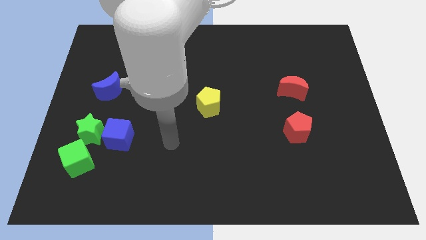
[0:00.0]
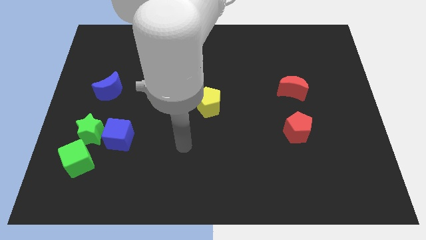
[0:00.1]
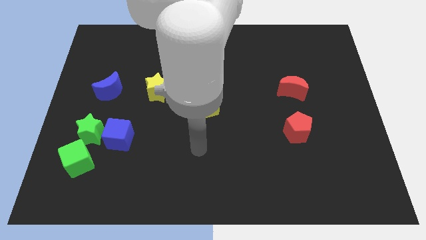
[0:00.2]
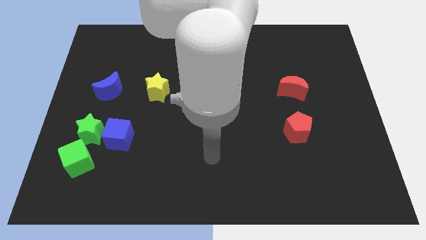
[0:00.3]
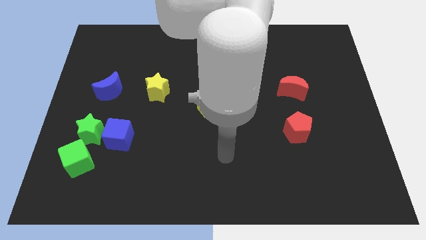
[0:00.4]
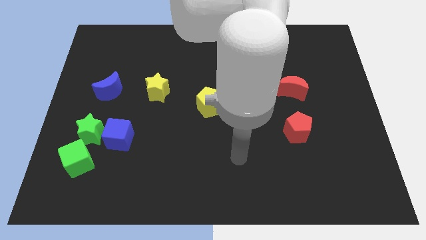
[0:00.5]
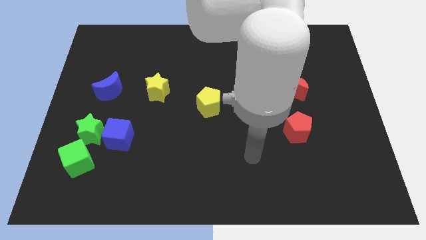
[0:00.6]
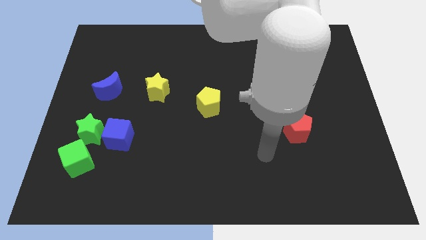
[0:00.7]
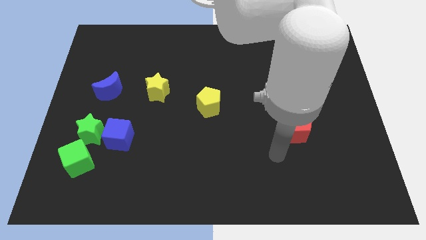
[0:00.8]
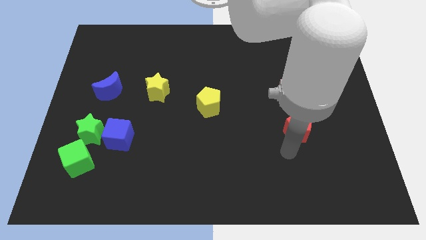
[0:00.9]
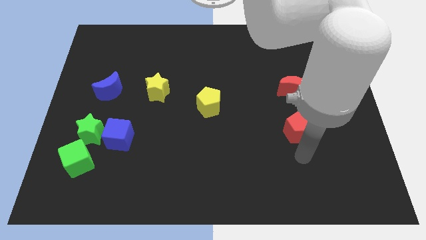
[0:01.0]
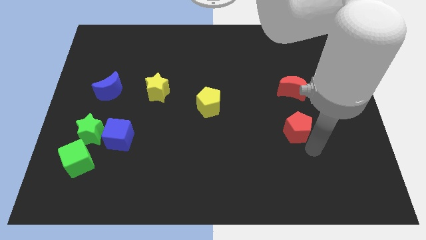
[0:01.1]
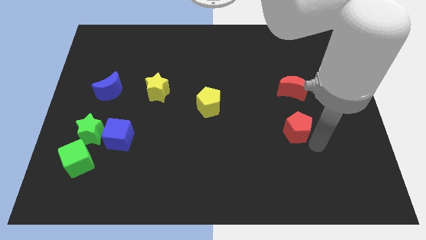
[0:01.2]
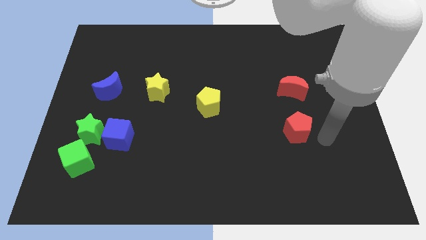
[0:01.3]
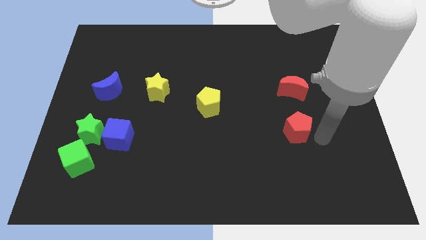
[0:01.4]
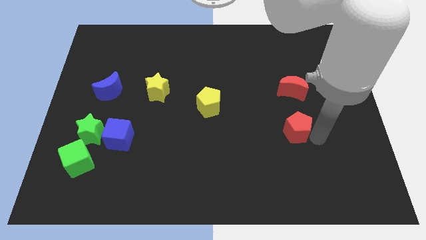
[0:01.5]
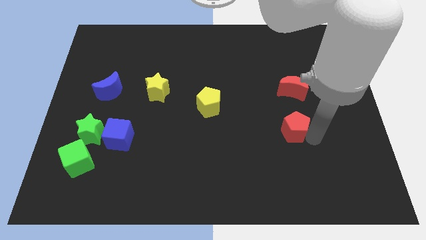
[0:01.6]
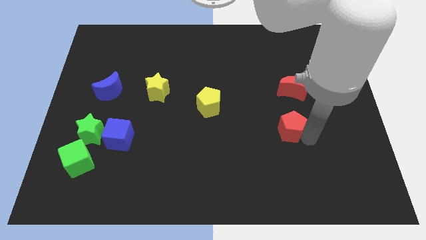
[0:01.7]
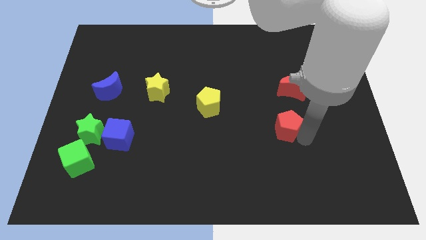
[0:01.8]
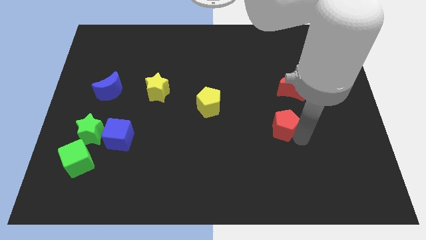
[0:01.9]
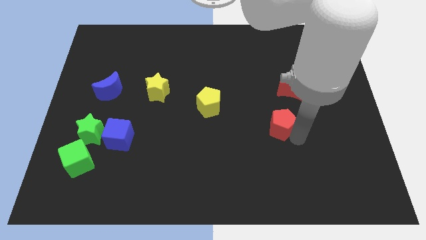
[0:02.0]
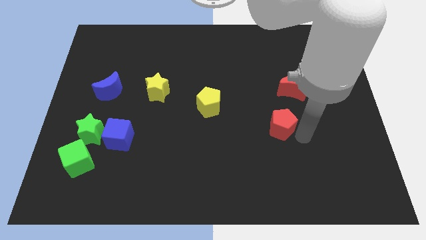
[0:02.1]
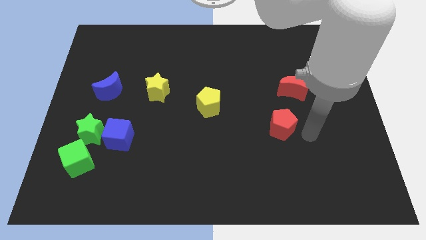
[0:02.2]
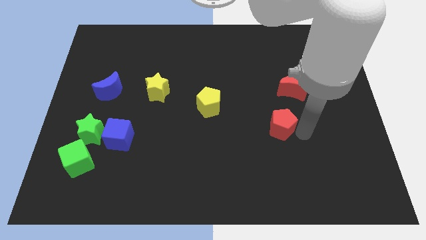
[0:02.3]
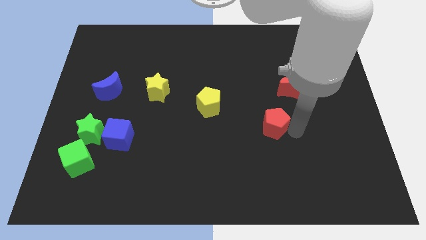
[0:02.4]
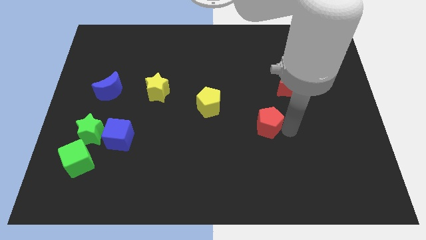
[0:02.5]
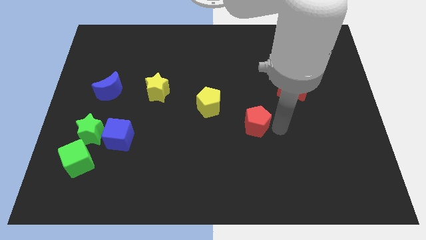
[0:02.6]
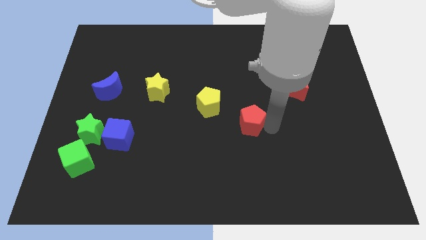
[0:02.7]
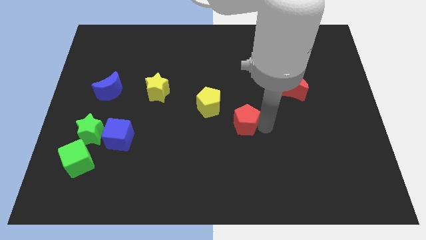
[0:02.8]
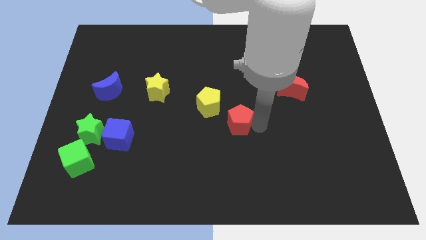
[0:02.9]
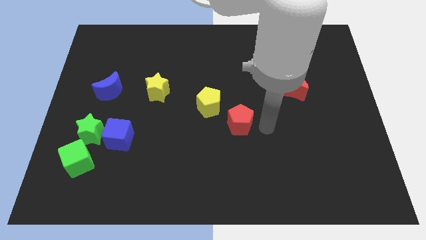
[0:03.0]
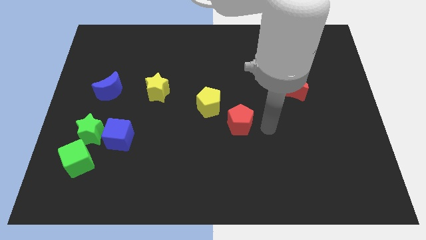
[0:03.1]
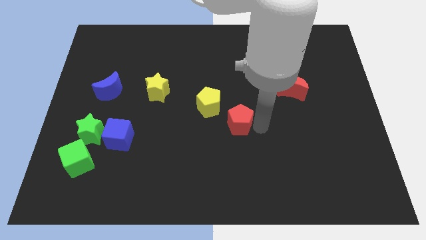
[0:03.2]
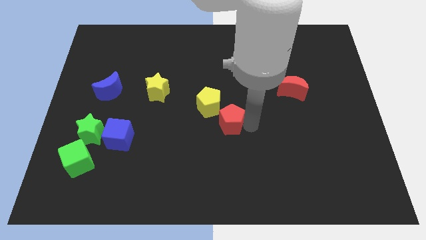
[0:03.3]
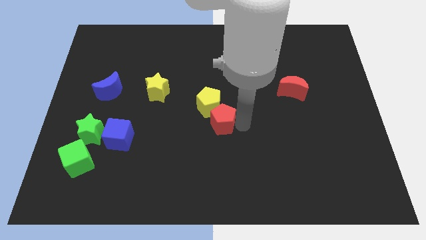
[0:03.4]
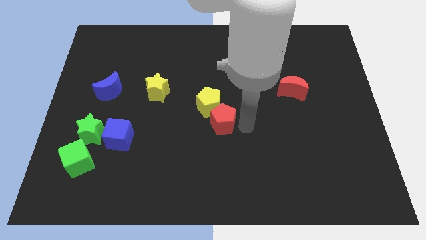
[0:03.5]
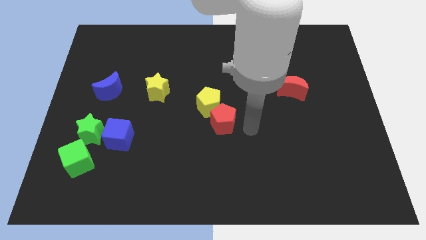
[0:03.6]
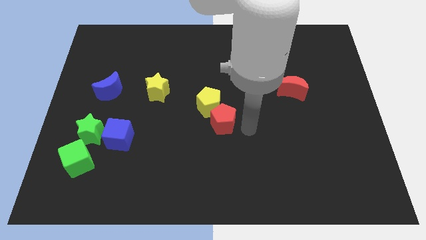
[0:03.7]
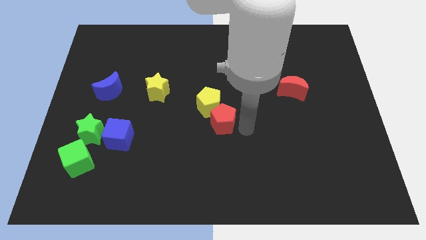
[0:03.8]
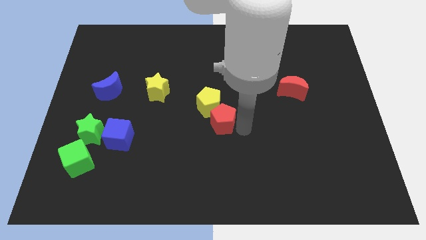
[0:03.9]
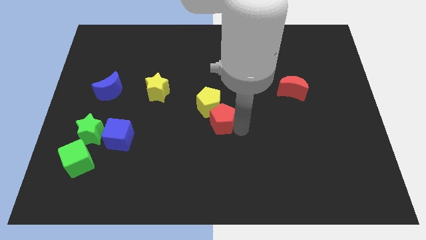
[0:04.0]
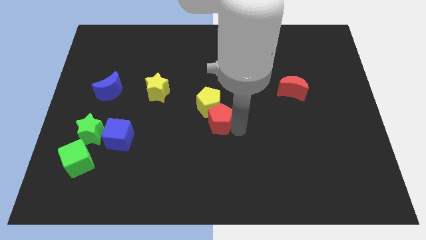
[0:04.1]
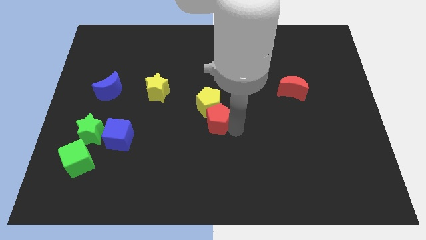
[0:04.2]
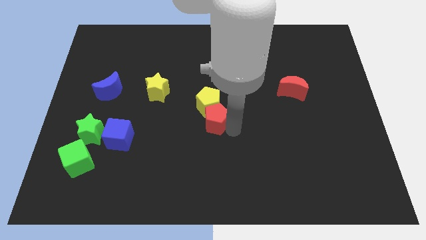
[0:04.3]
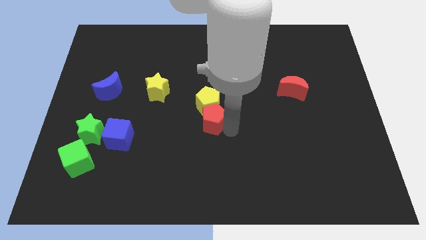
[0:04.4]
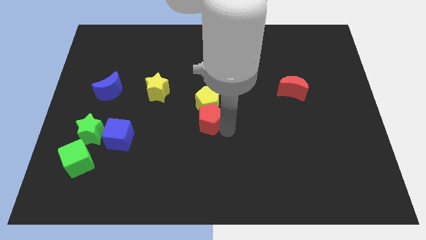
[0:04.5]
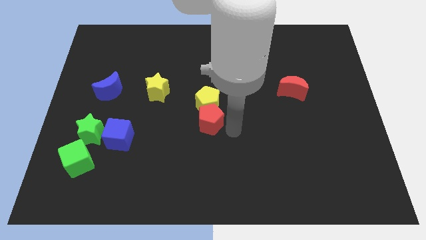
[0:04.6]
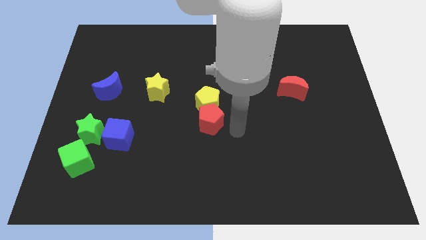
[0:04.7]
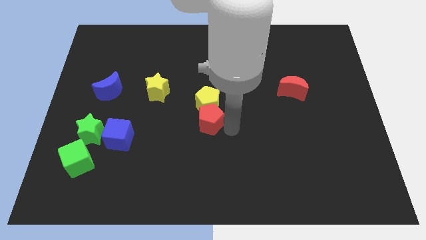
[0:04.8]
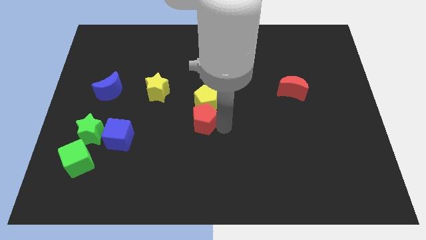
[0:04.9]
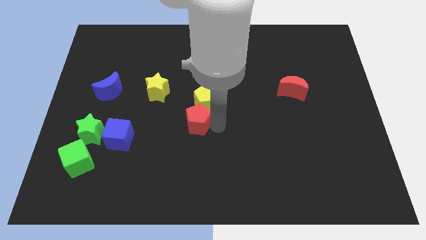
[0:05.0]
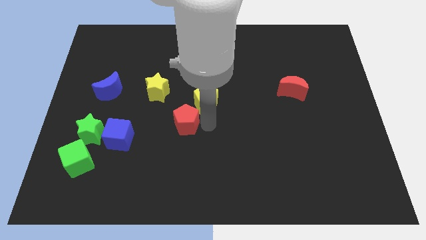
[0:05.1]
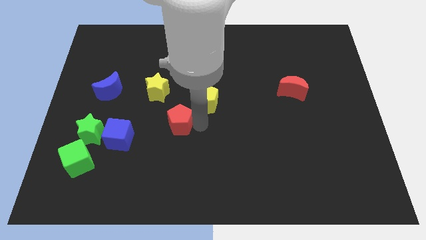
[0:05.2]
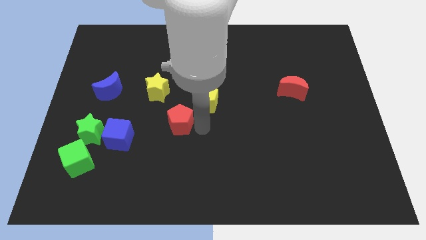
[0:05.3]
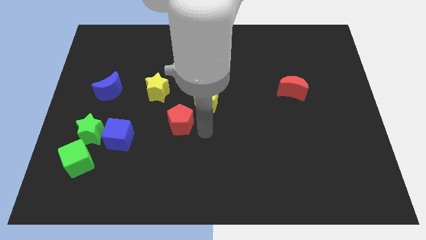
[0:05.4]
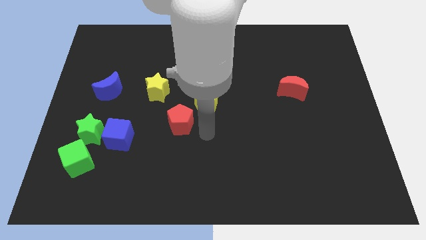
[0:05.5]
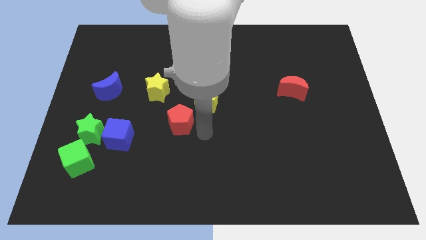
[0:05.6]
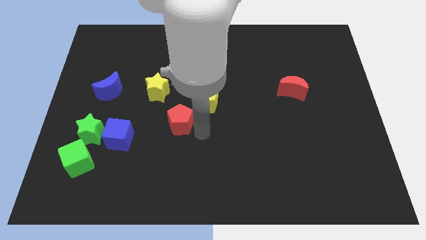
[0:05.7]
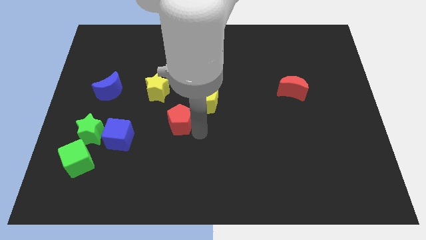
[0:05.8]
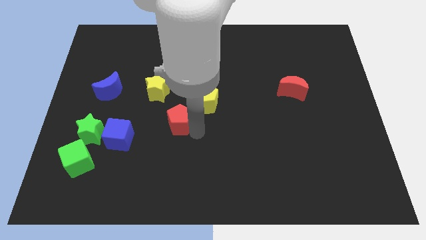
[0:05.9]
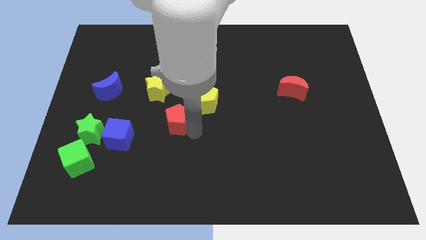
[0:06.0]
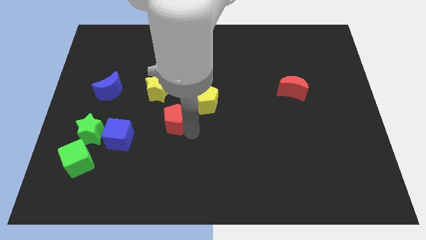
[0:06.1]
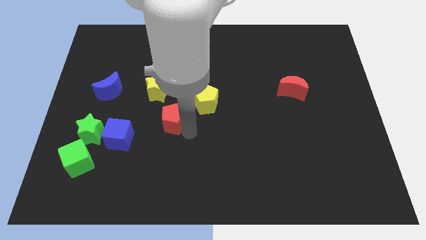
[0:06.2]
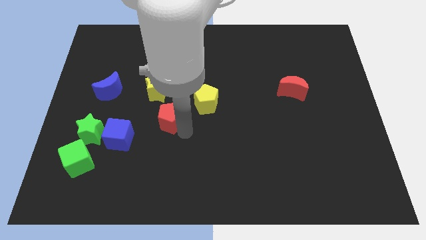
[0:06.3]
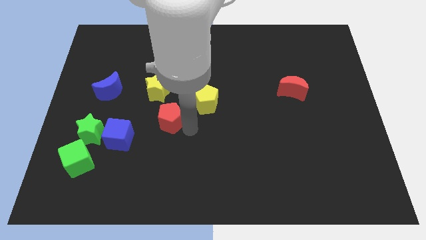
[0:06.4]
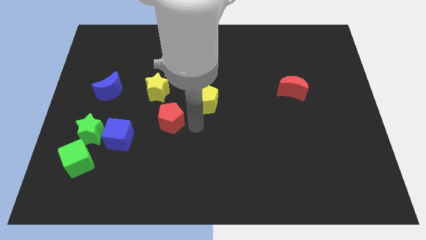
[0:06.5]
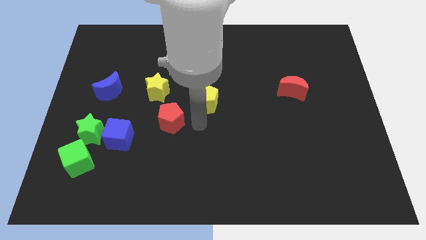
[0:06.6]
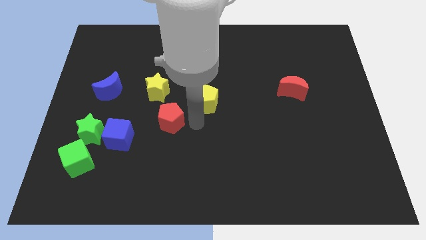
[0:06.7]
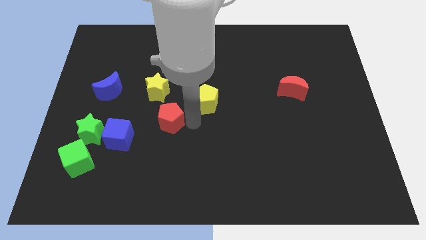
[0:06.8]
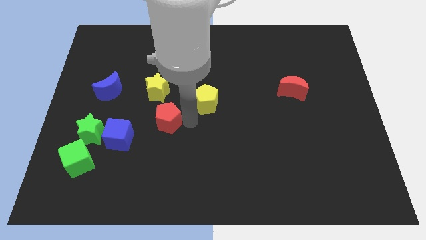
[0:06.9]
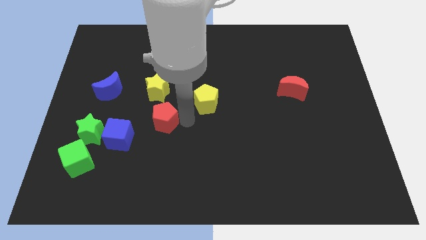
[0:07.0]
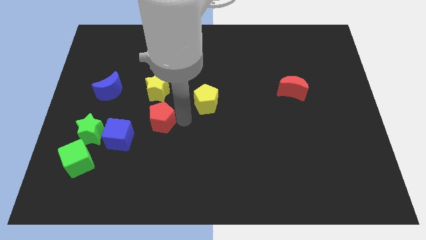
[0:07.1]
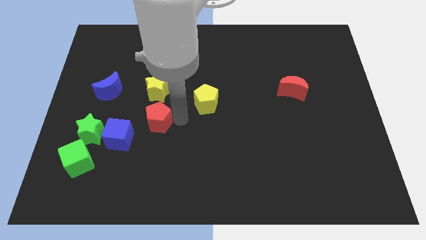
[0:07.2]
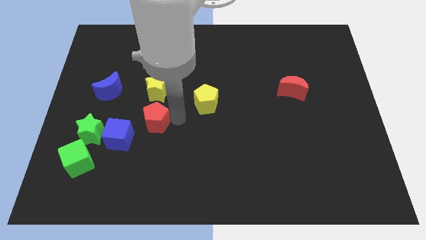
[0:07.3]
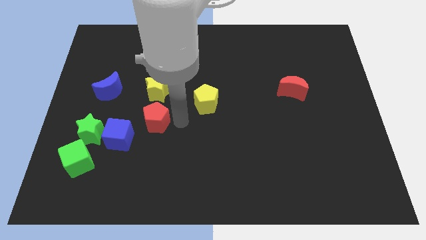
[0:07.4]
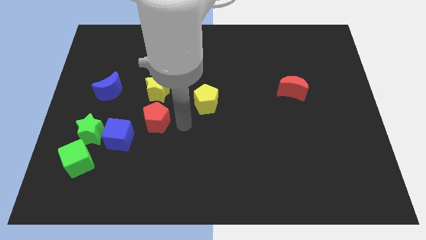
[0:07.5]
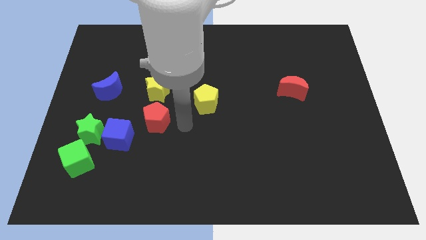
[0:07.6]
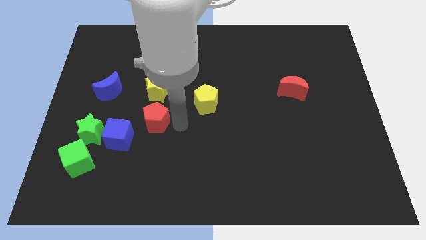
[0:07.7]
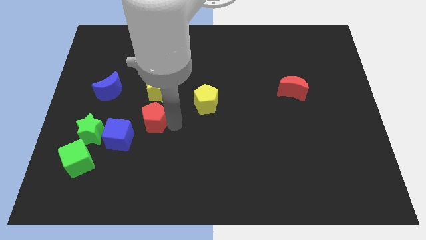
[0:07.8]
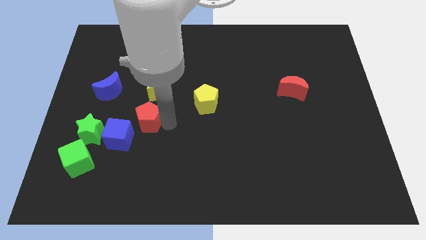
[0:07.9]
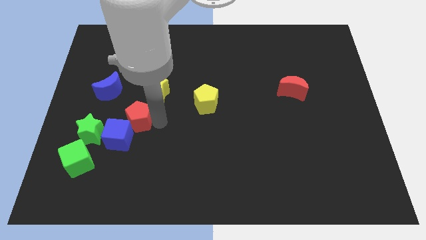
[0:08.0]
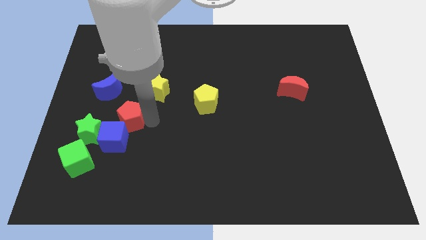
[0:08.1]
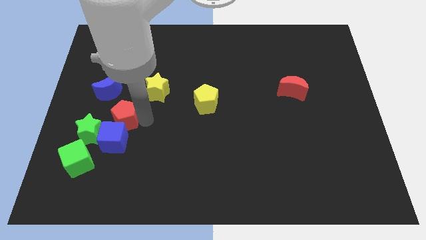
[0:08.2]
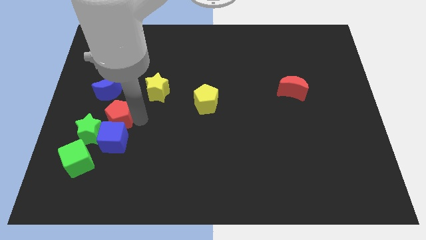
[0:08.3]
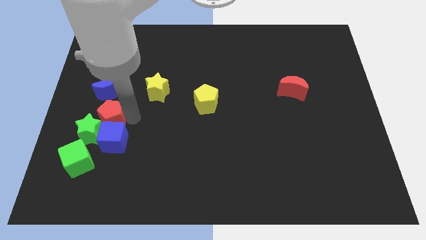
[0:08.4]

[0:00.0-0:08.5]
put the red pentagon to the green star
